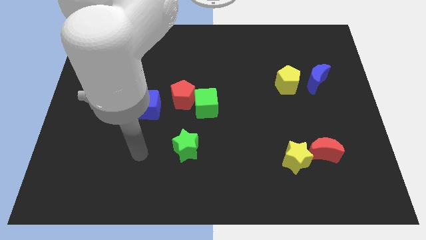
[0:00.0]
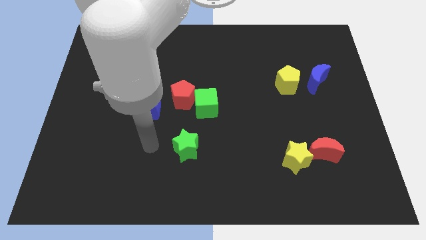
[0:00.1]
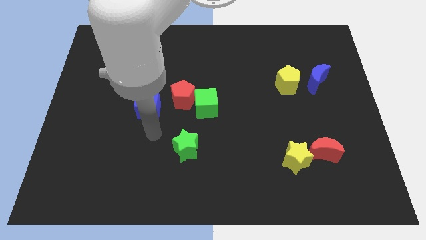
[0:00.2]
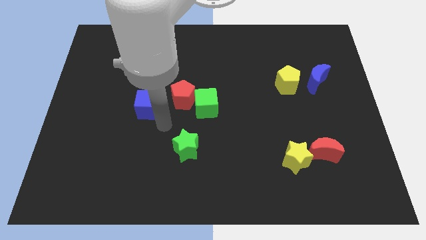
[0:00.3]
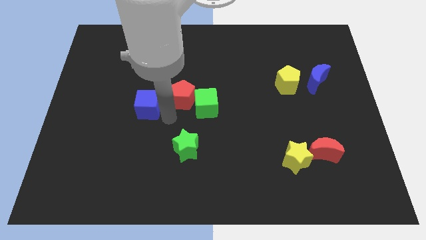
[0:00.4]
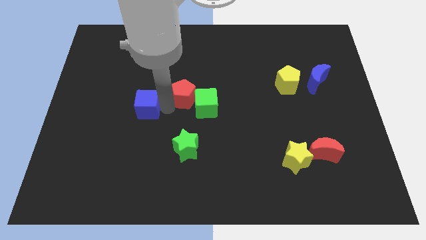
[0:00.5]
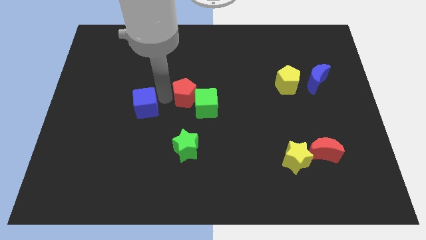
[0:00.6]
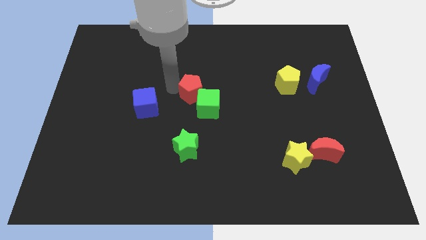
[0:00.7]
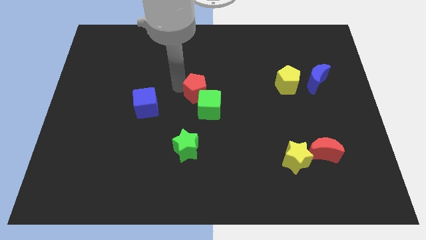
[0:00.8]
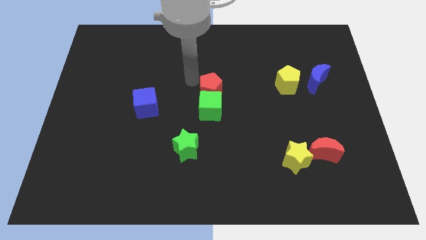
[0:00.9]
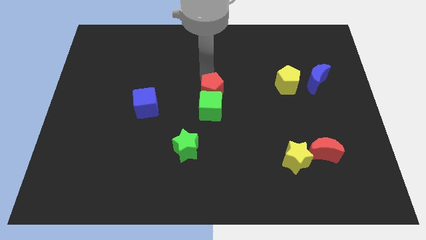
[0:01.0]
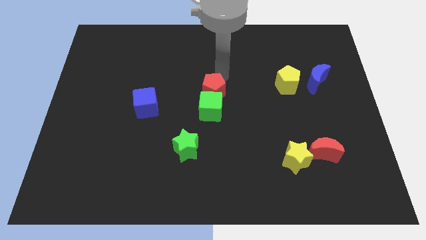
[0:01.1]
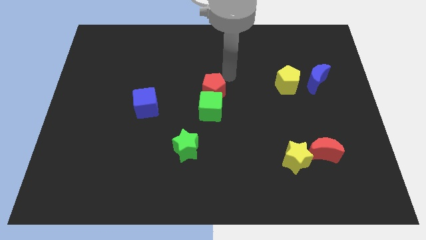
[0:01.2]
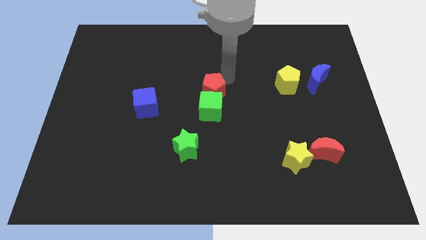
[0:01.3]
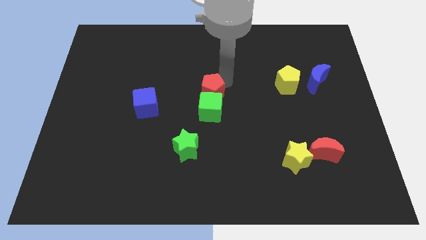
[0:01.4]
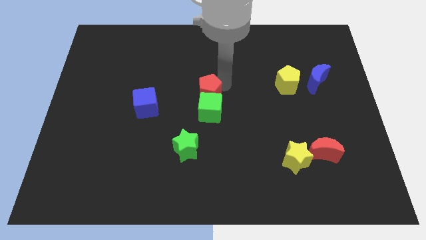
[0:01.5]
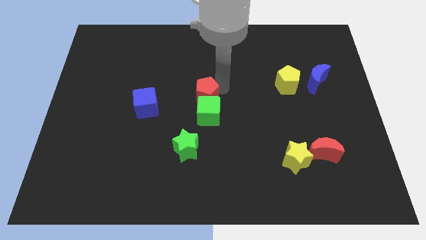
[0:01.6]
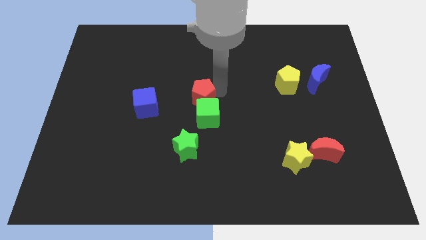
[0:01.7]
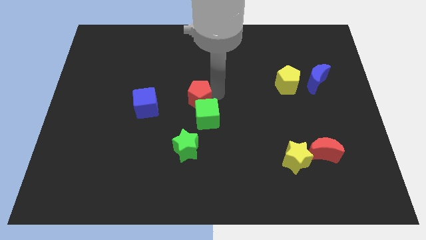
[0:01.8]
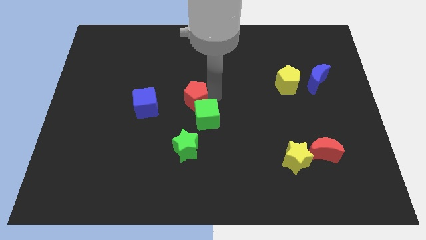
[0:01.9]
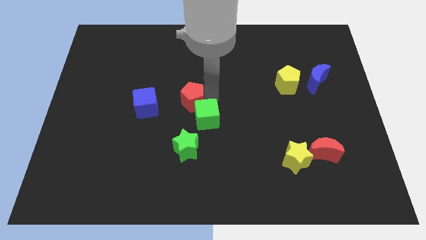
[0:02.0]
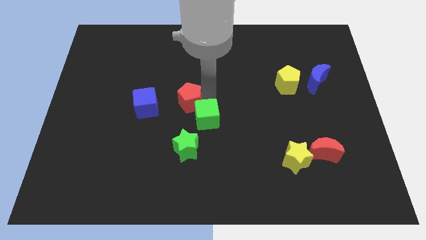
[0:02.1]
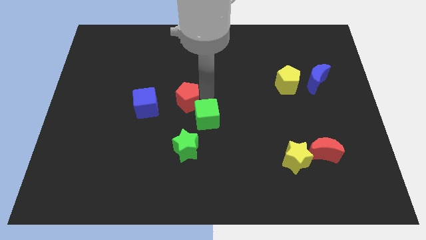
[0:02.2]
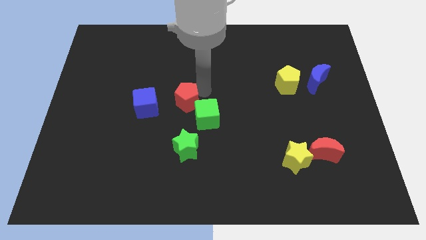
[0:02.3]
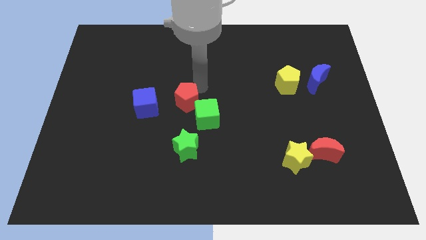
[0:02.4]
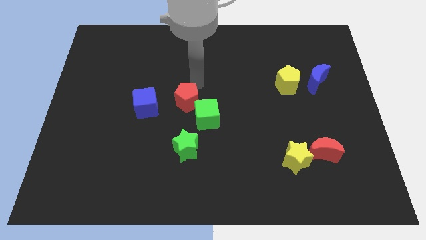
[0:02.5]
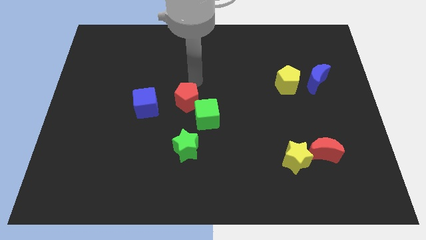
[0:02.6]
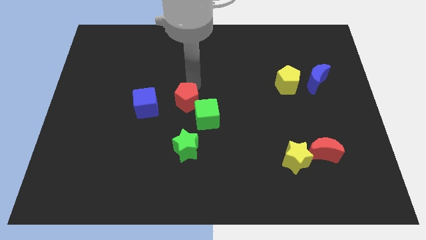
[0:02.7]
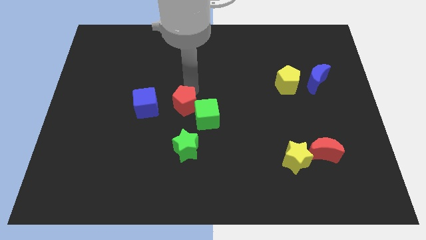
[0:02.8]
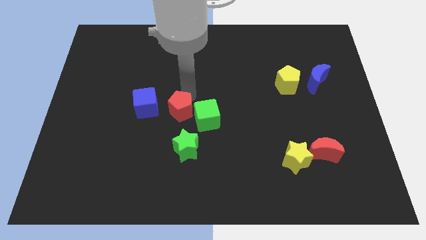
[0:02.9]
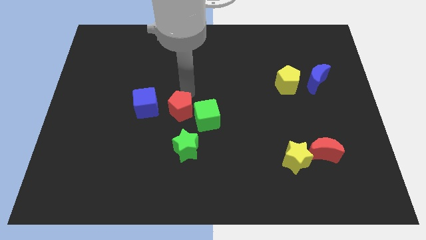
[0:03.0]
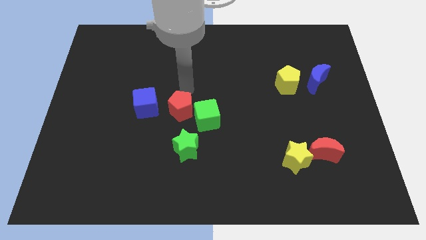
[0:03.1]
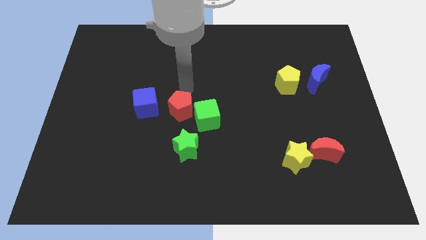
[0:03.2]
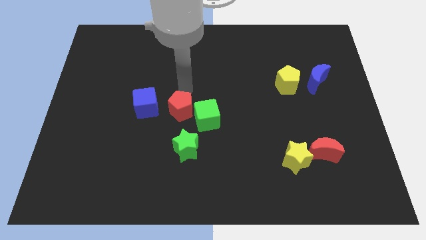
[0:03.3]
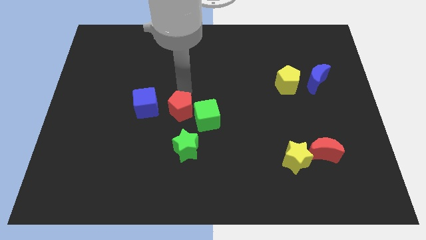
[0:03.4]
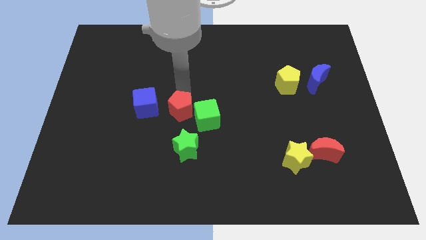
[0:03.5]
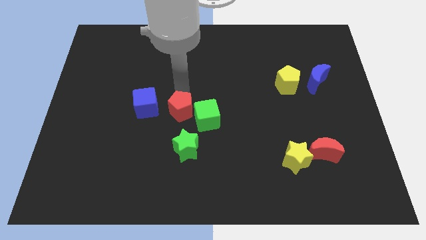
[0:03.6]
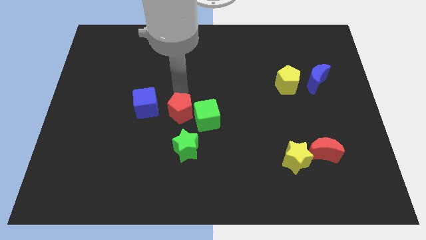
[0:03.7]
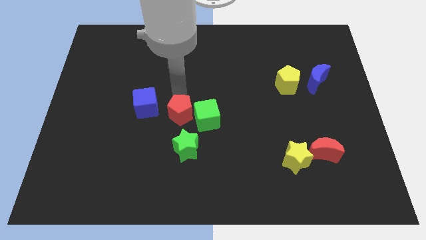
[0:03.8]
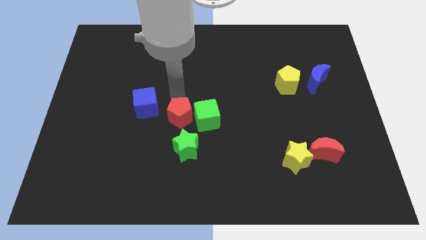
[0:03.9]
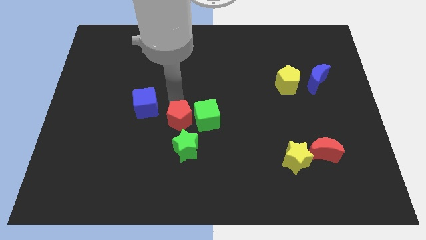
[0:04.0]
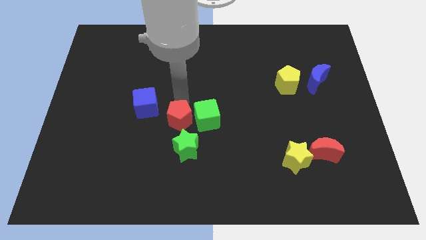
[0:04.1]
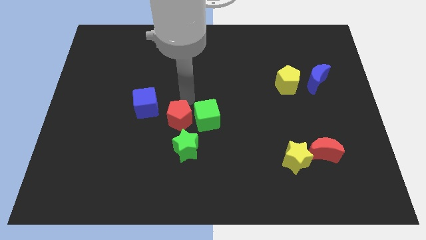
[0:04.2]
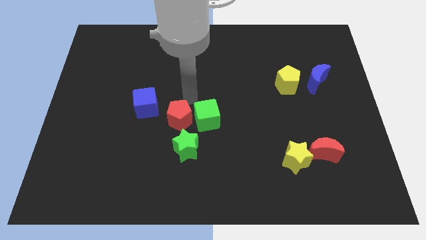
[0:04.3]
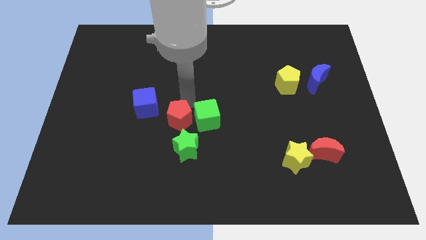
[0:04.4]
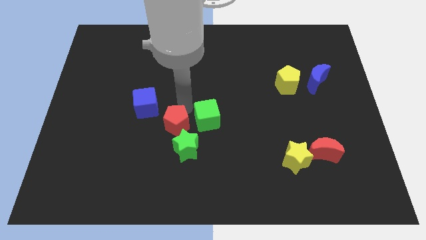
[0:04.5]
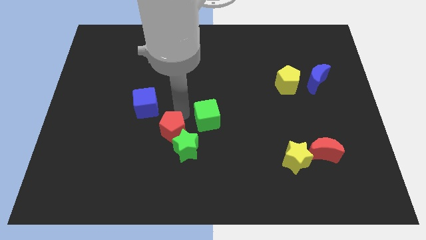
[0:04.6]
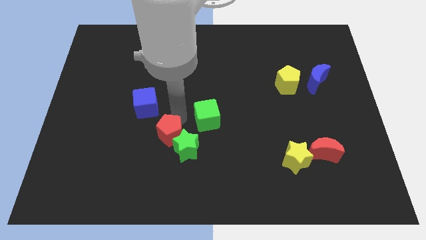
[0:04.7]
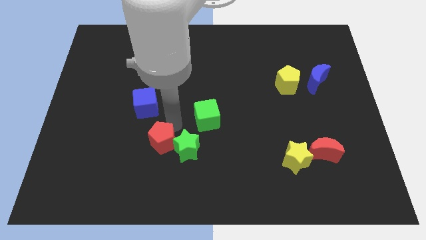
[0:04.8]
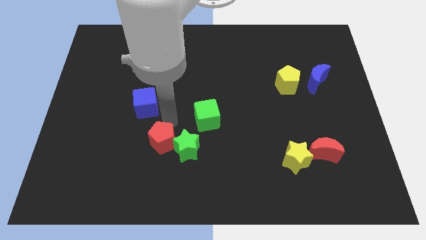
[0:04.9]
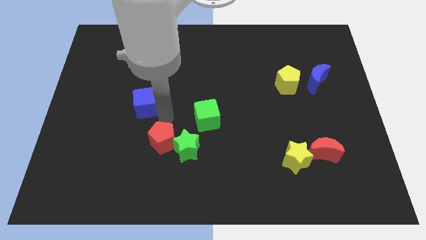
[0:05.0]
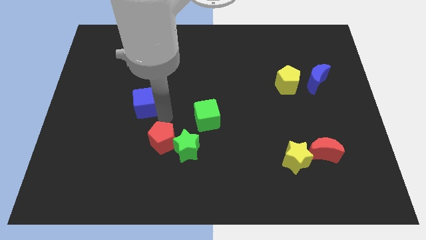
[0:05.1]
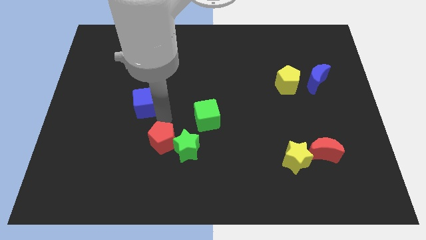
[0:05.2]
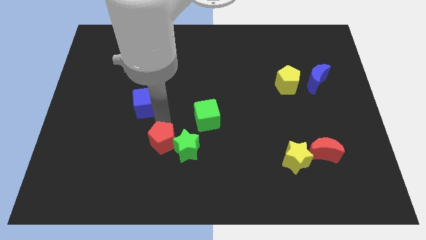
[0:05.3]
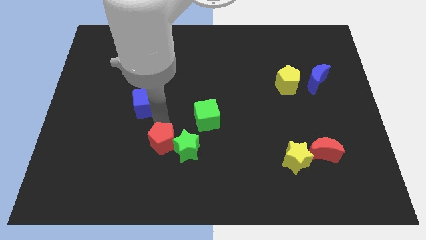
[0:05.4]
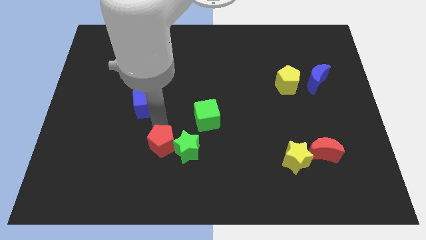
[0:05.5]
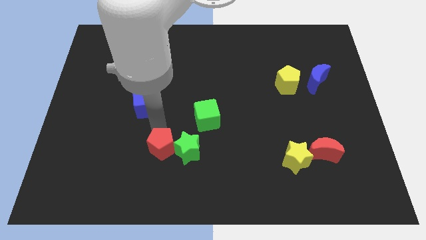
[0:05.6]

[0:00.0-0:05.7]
push the red pentagon to the bottom left side of the green star

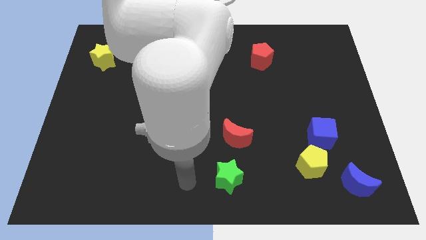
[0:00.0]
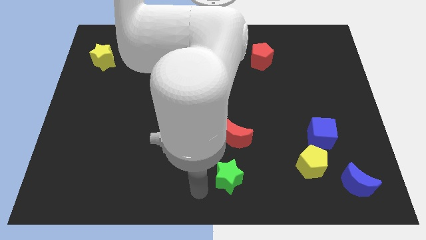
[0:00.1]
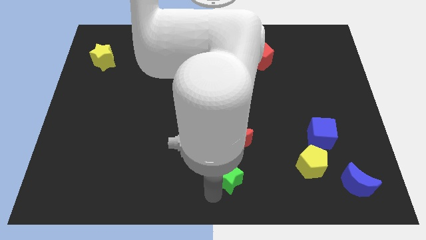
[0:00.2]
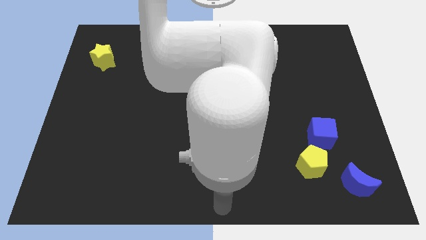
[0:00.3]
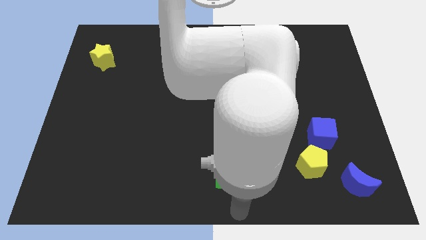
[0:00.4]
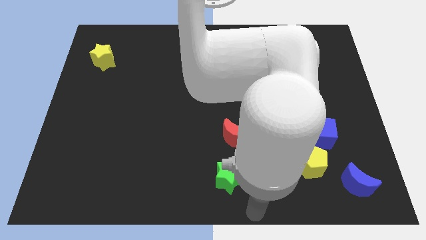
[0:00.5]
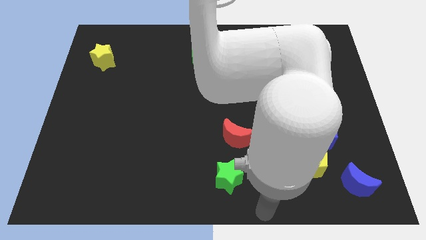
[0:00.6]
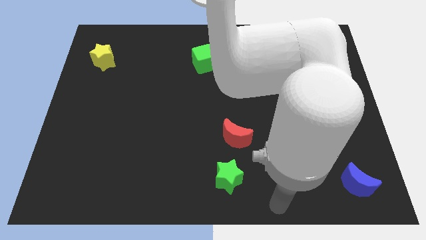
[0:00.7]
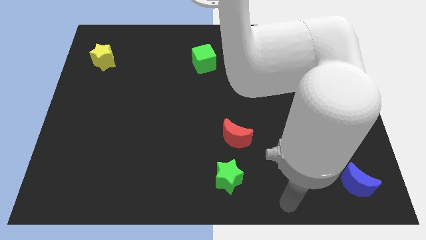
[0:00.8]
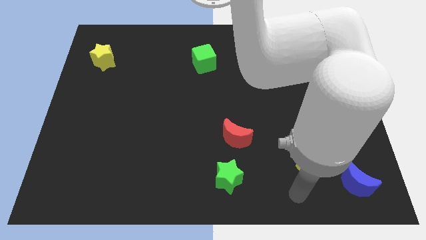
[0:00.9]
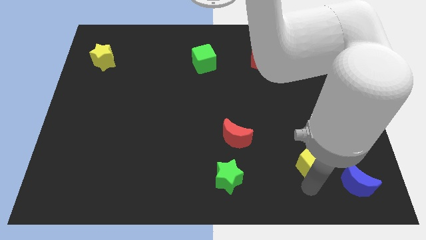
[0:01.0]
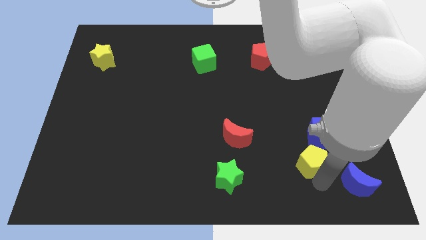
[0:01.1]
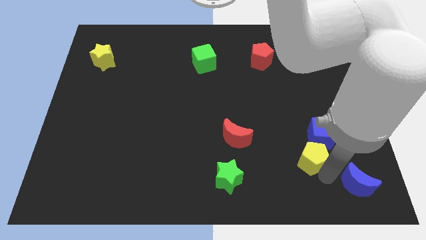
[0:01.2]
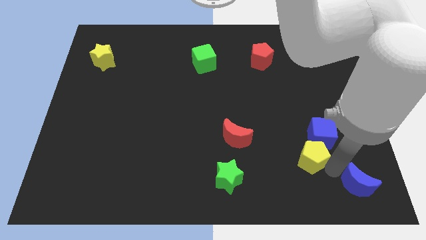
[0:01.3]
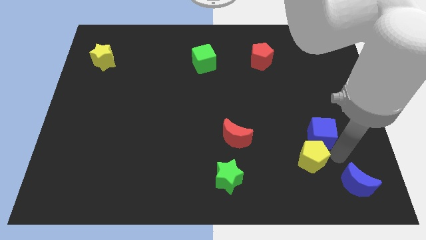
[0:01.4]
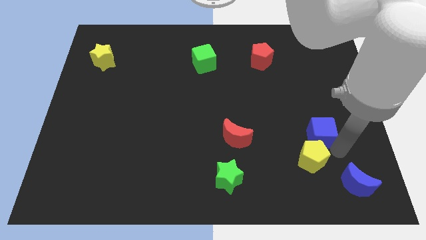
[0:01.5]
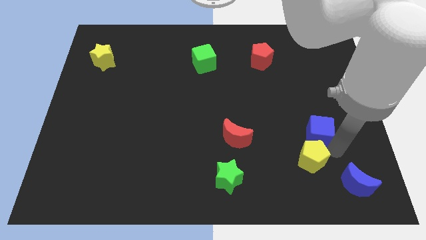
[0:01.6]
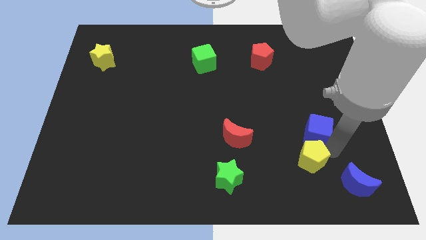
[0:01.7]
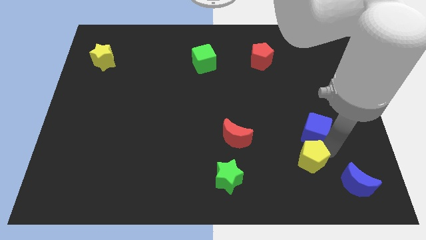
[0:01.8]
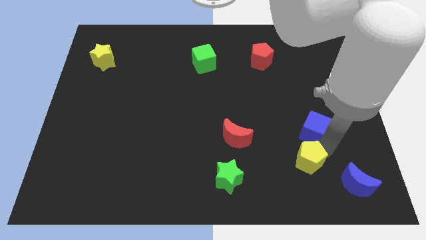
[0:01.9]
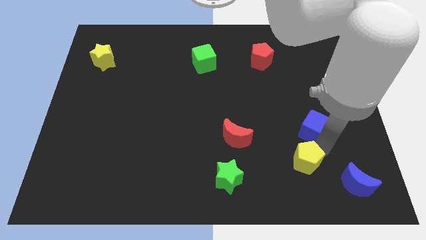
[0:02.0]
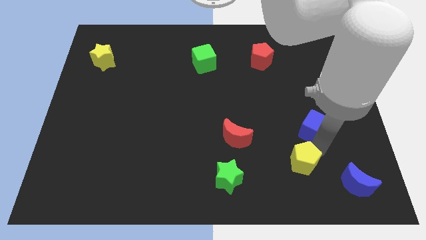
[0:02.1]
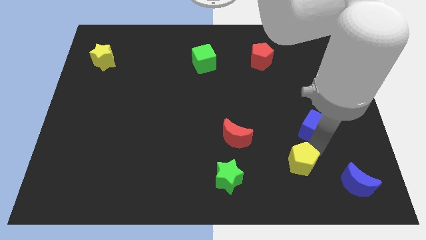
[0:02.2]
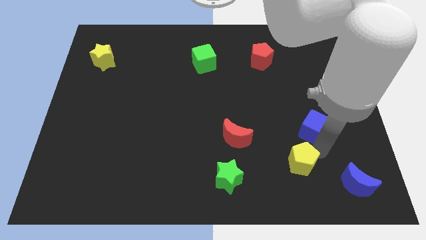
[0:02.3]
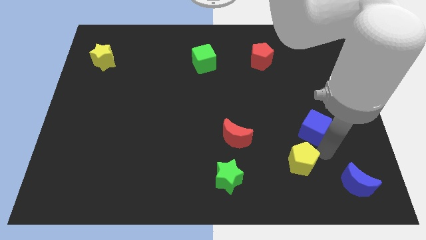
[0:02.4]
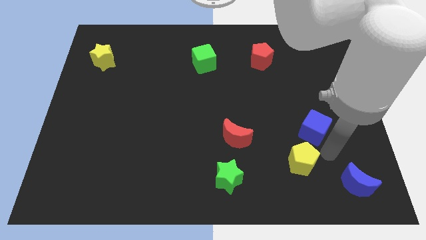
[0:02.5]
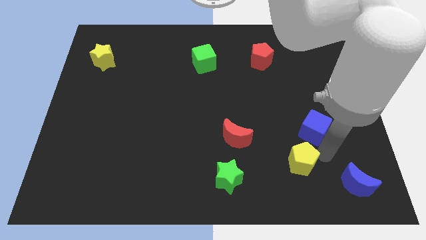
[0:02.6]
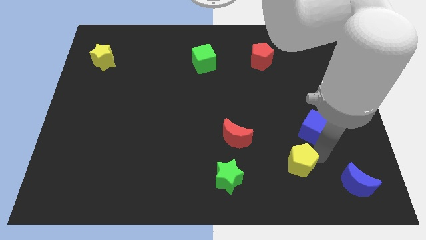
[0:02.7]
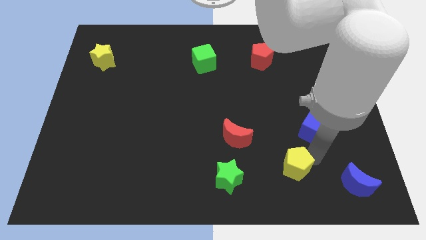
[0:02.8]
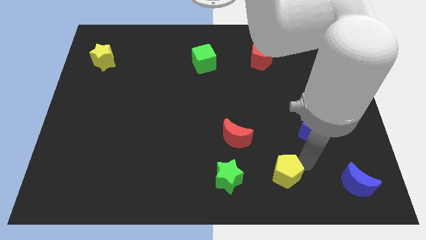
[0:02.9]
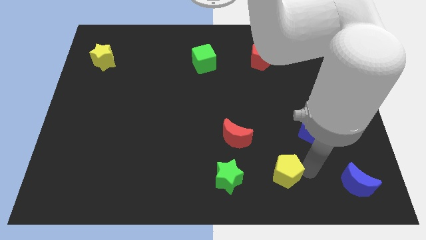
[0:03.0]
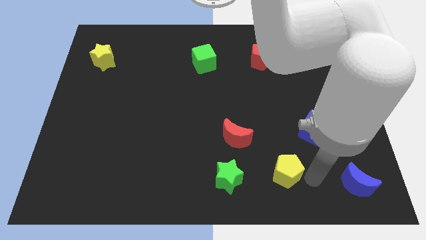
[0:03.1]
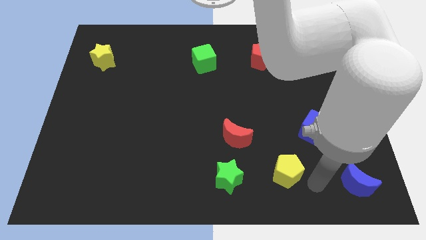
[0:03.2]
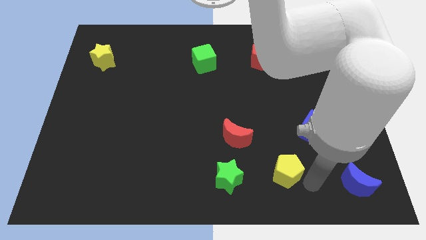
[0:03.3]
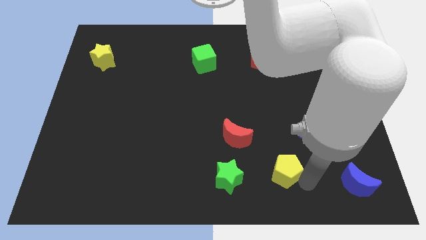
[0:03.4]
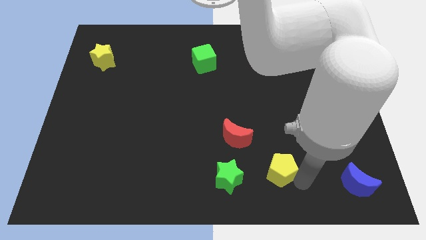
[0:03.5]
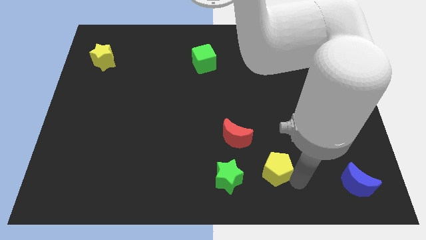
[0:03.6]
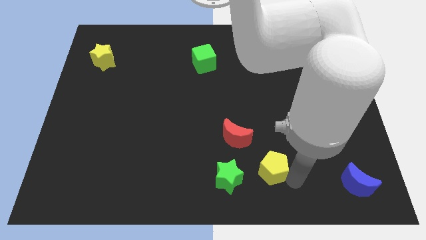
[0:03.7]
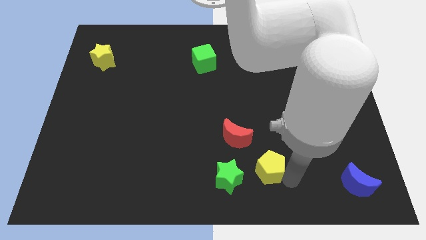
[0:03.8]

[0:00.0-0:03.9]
move the yellow pentagon diagonally up and to the right of the green star
